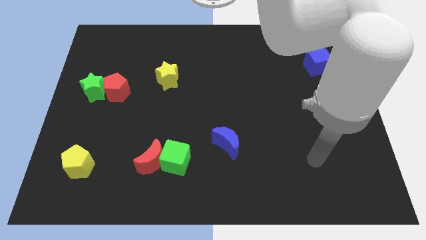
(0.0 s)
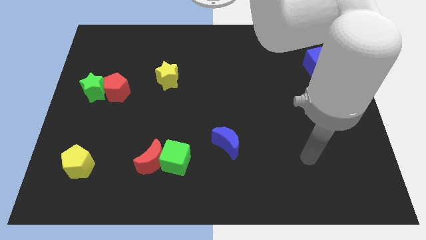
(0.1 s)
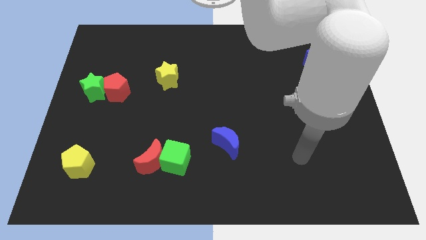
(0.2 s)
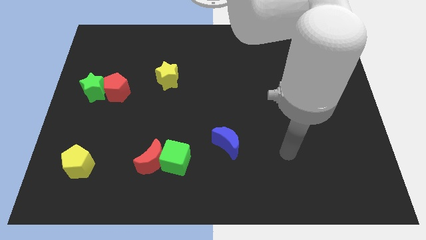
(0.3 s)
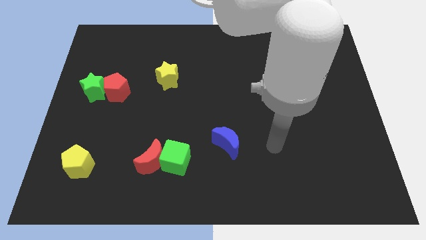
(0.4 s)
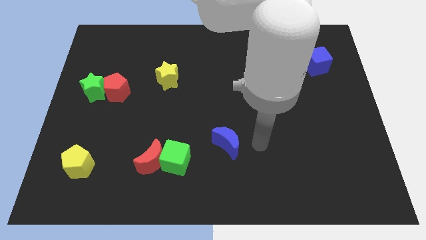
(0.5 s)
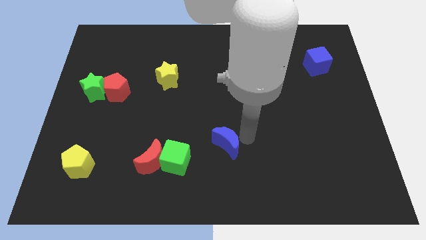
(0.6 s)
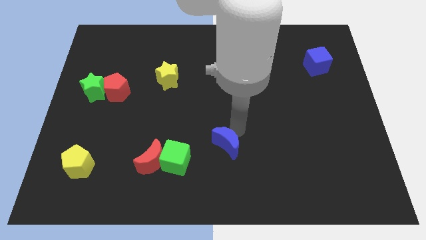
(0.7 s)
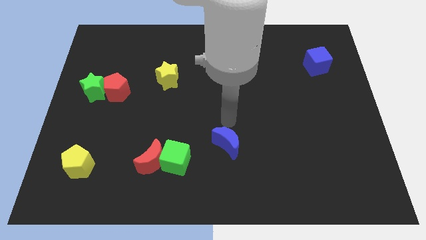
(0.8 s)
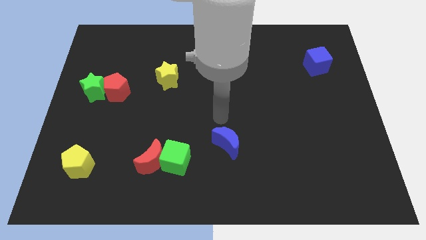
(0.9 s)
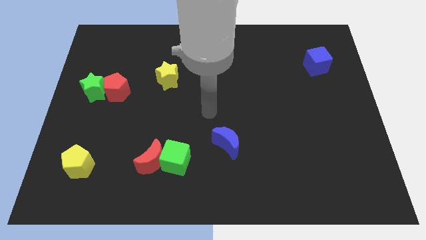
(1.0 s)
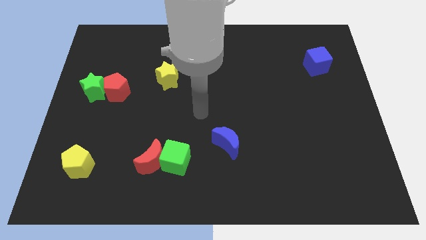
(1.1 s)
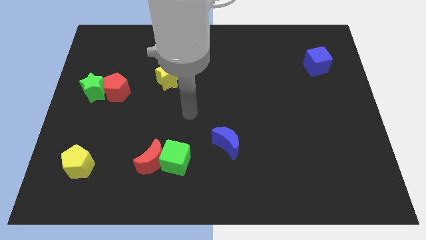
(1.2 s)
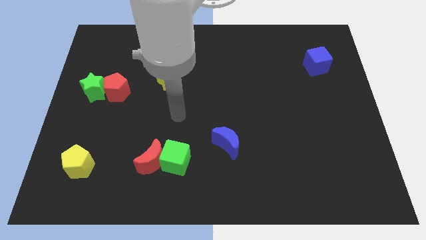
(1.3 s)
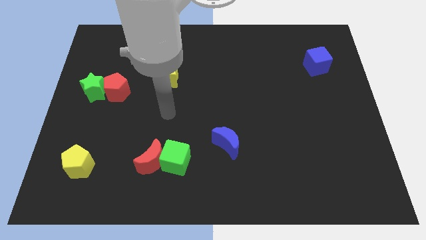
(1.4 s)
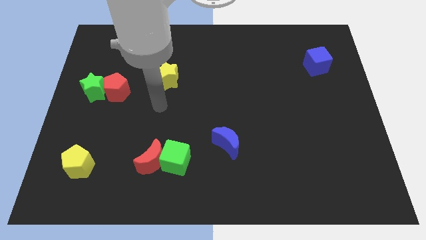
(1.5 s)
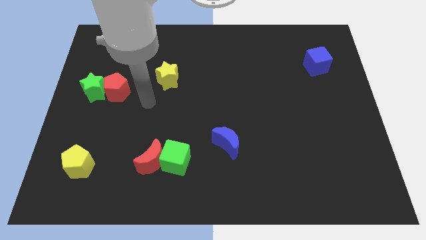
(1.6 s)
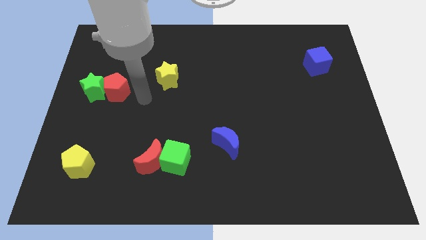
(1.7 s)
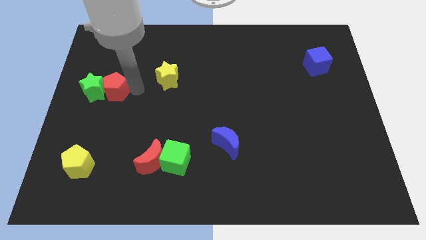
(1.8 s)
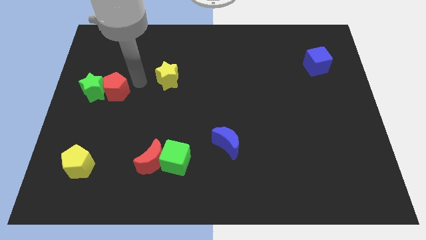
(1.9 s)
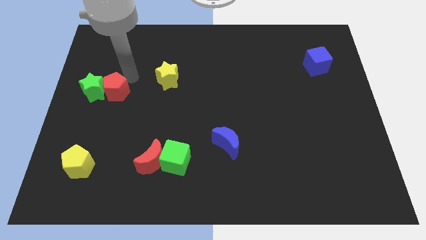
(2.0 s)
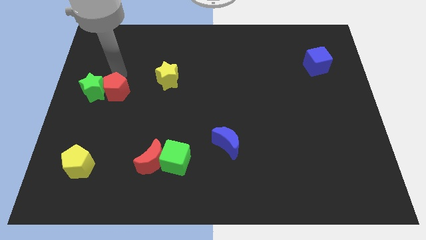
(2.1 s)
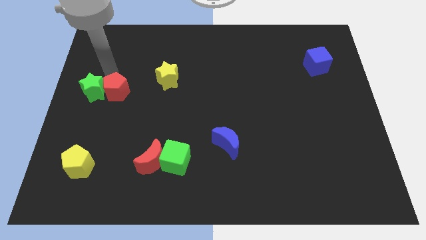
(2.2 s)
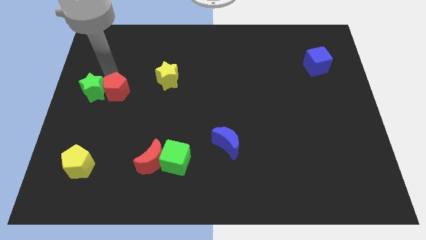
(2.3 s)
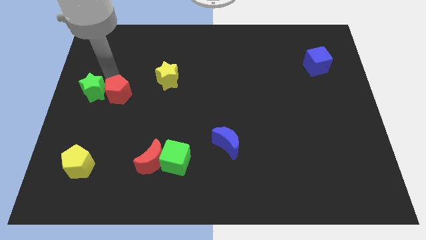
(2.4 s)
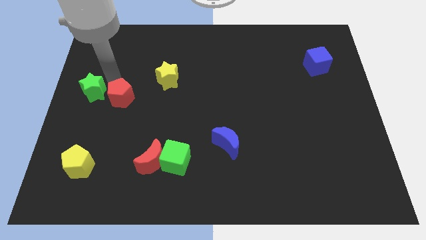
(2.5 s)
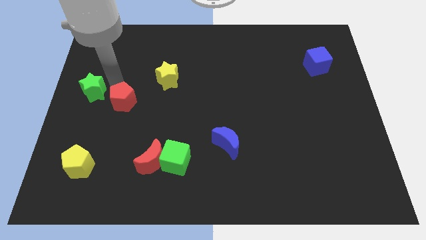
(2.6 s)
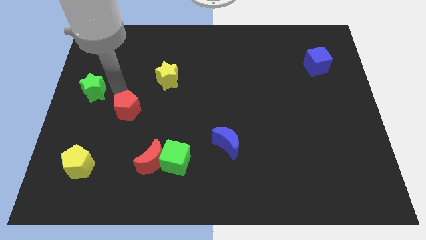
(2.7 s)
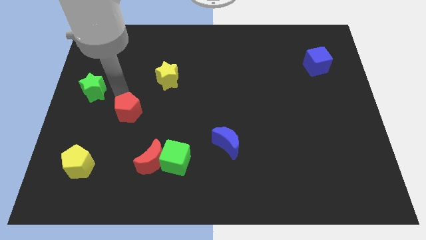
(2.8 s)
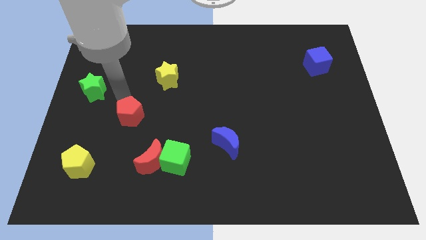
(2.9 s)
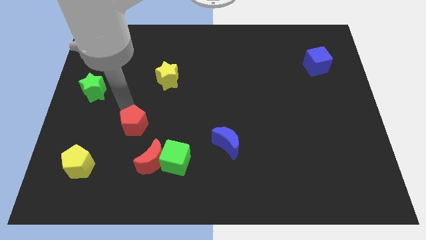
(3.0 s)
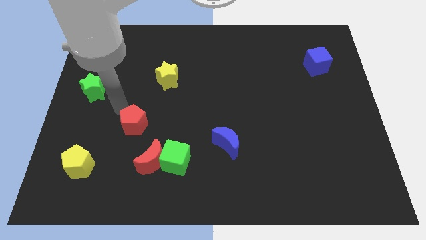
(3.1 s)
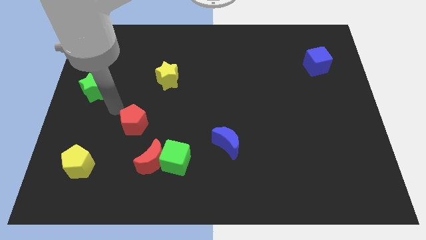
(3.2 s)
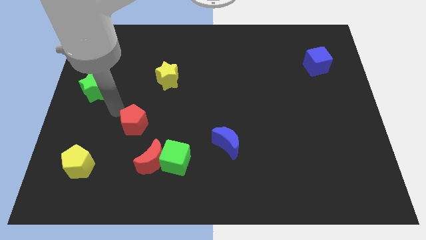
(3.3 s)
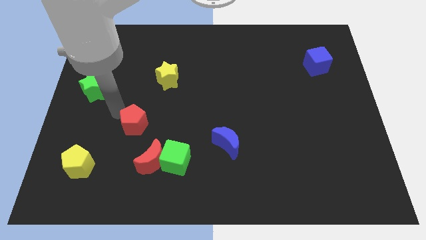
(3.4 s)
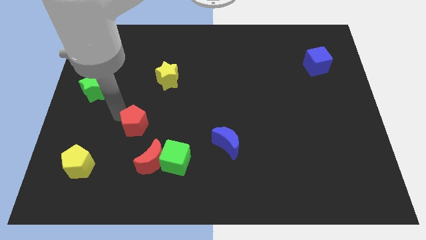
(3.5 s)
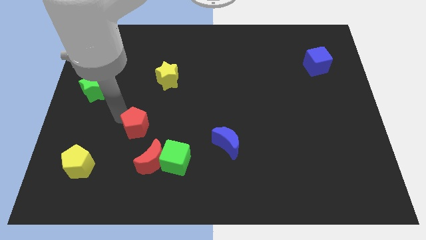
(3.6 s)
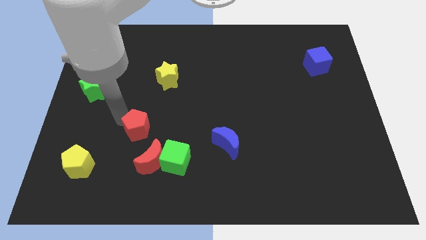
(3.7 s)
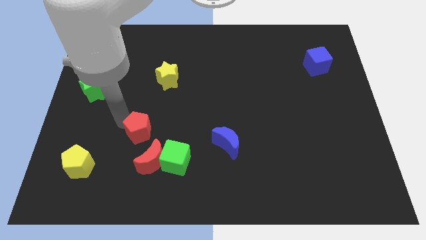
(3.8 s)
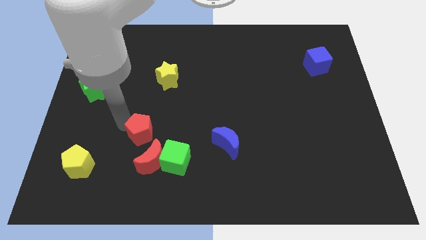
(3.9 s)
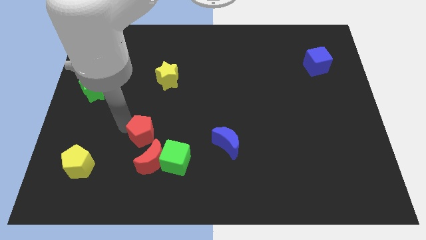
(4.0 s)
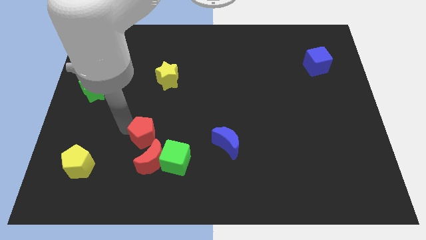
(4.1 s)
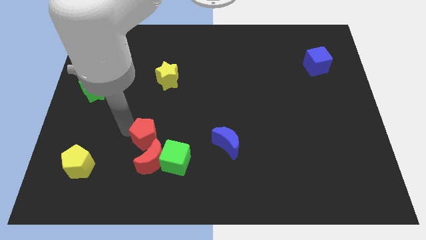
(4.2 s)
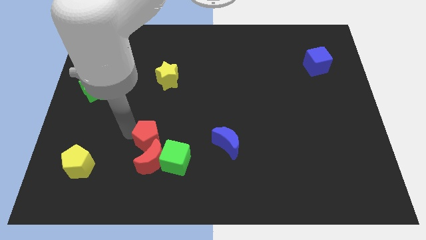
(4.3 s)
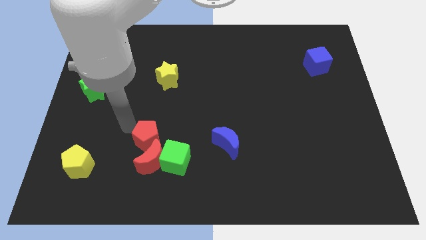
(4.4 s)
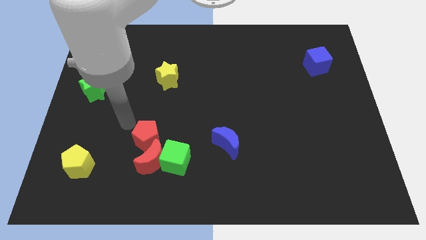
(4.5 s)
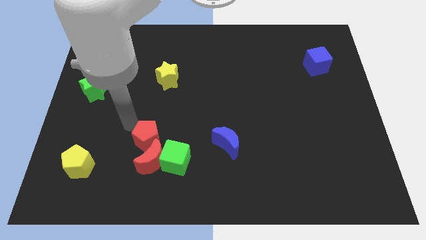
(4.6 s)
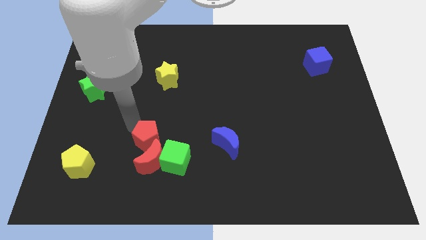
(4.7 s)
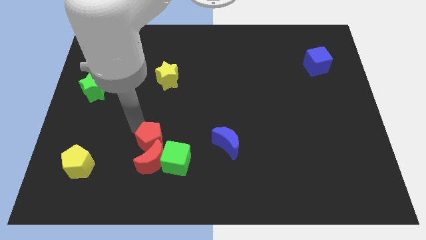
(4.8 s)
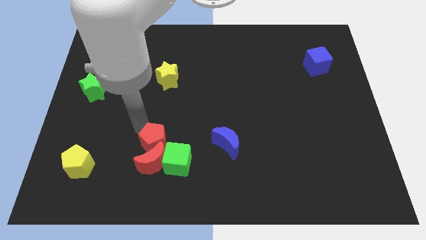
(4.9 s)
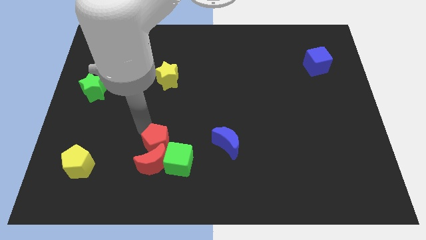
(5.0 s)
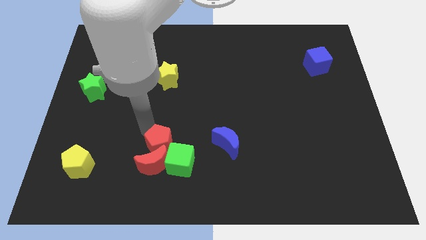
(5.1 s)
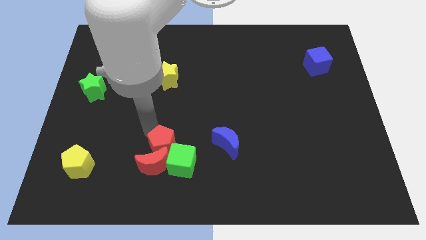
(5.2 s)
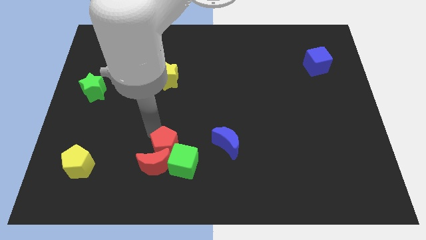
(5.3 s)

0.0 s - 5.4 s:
slide the red pentagon to the green cube

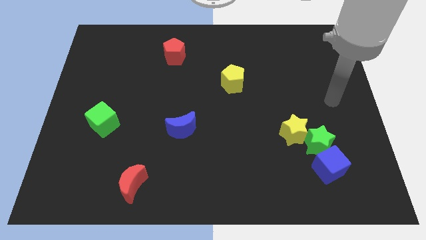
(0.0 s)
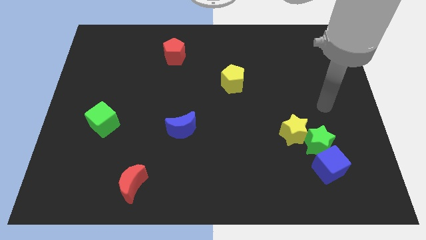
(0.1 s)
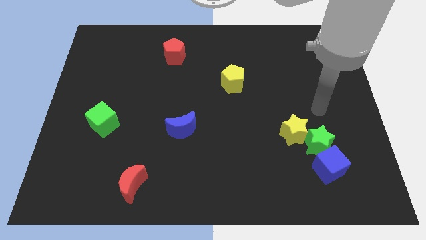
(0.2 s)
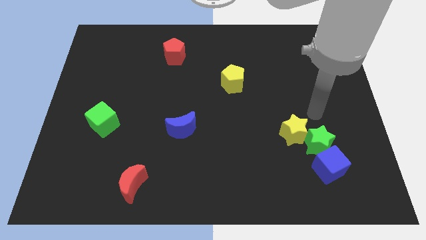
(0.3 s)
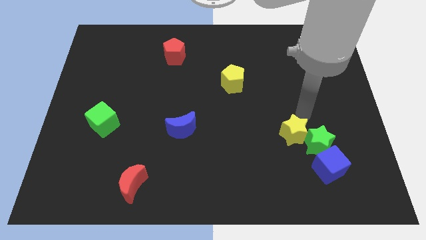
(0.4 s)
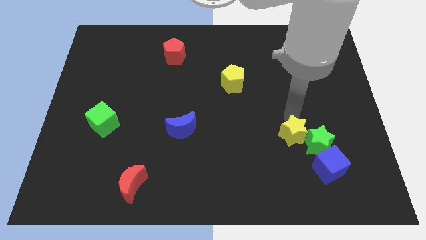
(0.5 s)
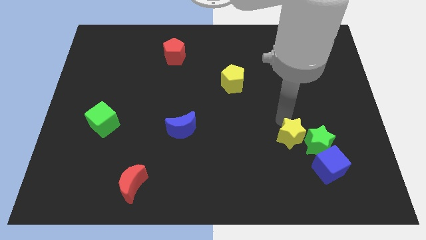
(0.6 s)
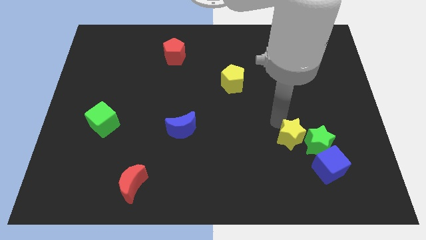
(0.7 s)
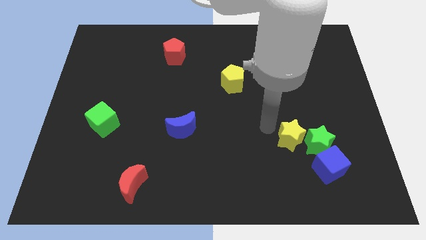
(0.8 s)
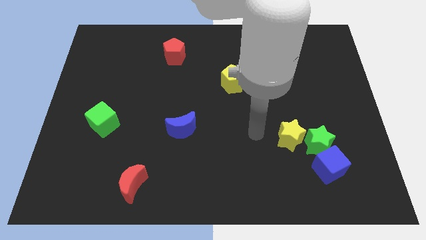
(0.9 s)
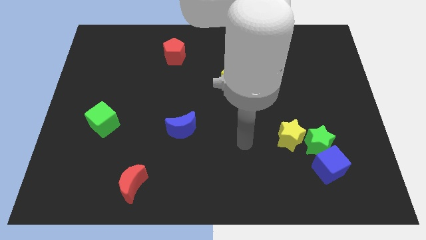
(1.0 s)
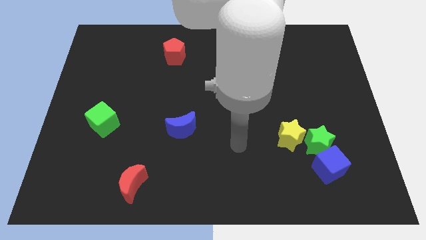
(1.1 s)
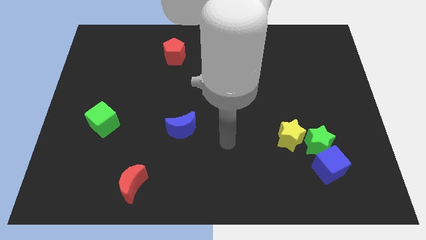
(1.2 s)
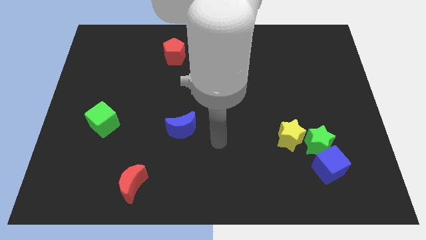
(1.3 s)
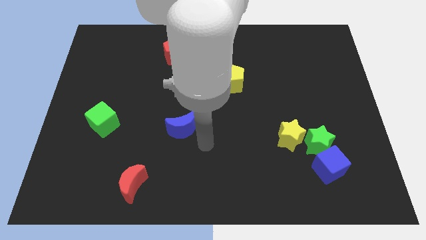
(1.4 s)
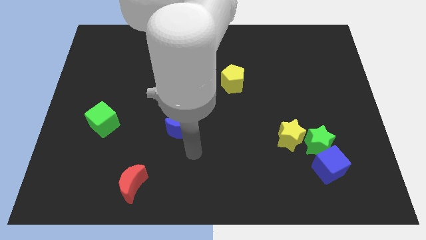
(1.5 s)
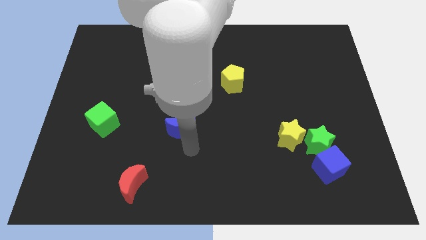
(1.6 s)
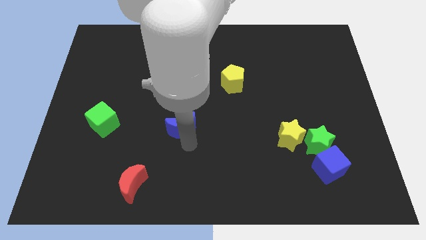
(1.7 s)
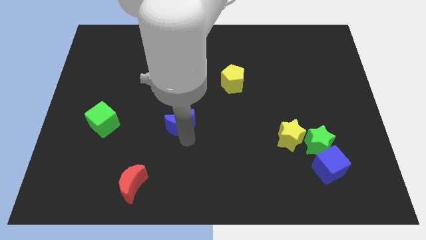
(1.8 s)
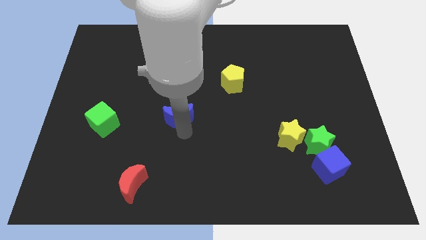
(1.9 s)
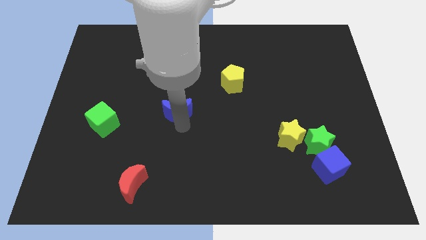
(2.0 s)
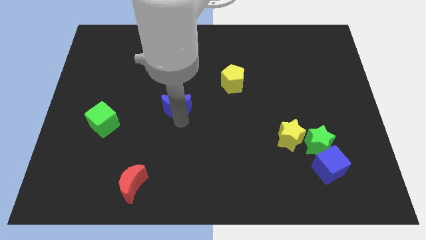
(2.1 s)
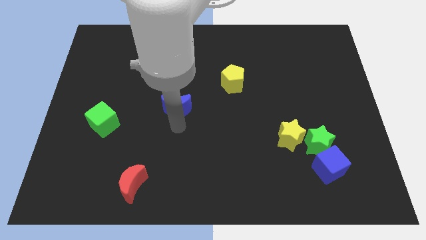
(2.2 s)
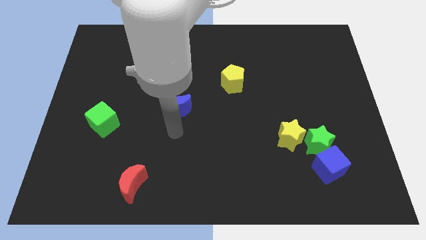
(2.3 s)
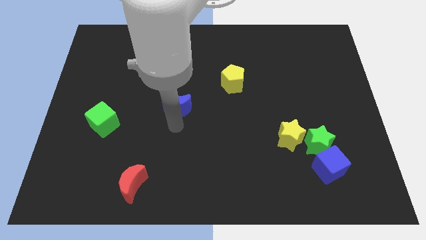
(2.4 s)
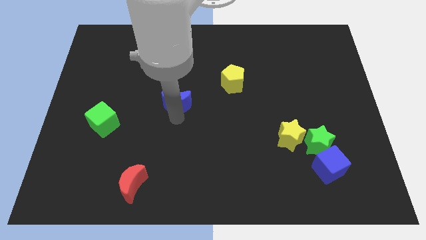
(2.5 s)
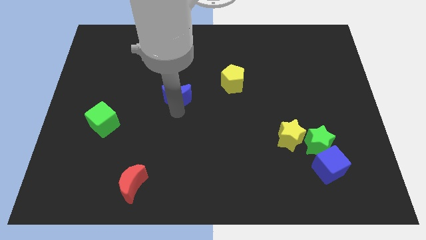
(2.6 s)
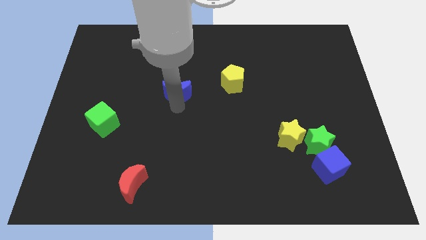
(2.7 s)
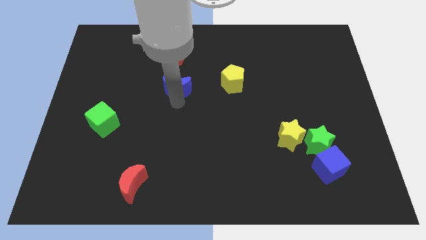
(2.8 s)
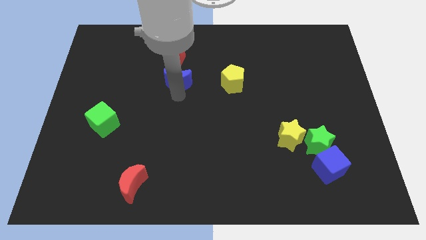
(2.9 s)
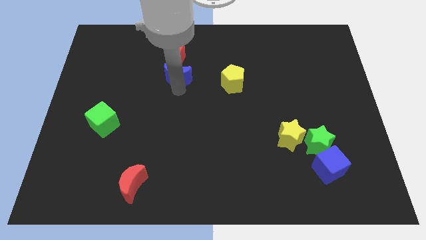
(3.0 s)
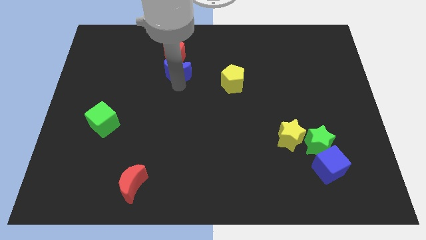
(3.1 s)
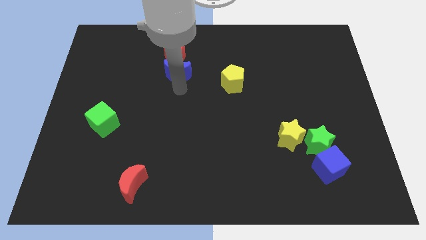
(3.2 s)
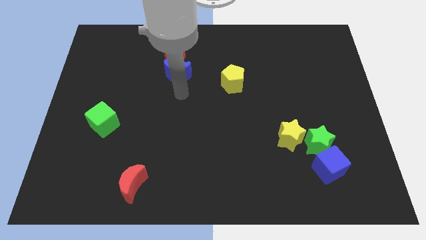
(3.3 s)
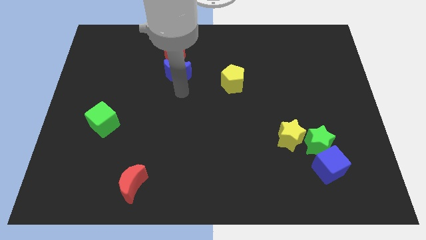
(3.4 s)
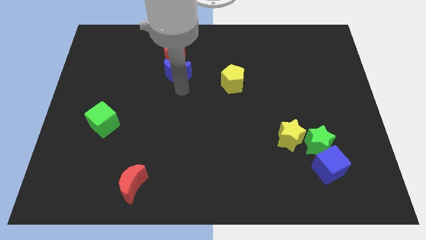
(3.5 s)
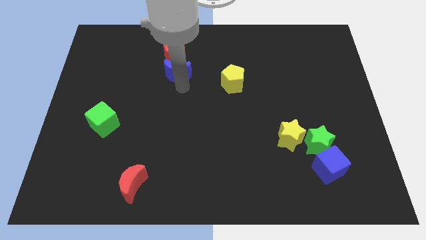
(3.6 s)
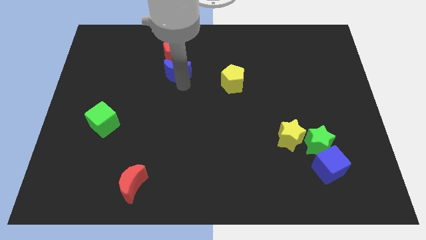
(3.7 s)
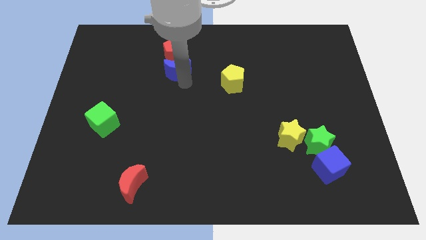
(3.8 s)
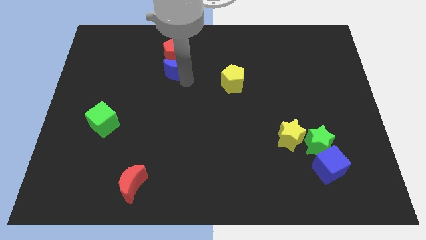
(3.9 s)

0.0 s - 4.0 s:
slide the blue moon towards the red pentagon
